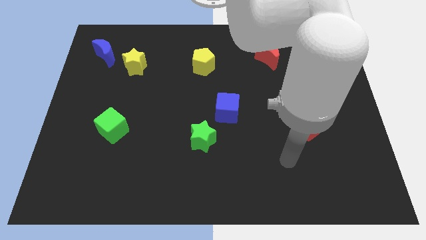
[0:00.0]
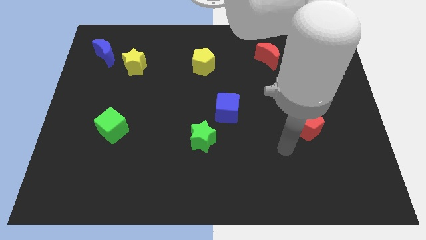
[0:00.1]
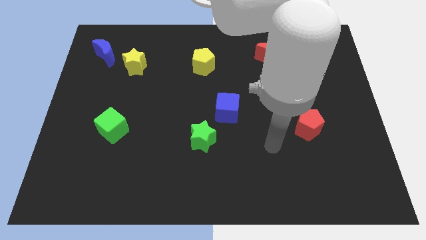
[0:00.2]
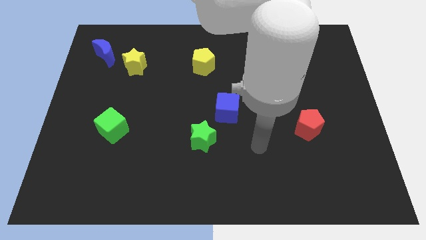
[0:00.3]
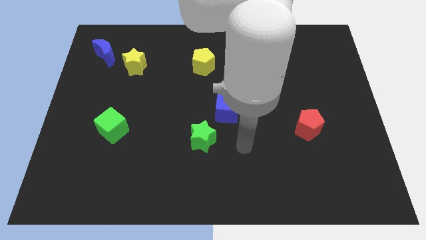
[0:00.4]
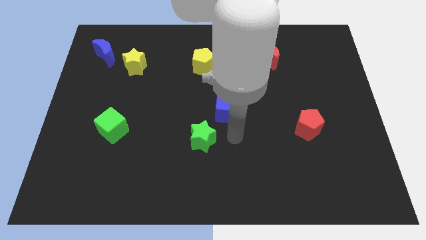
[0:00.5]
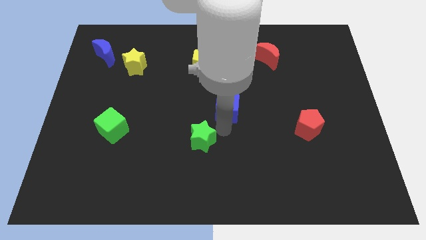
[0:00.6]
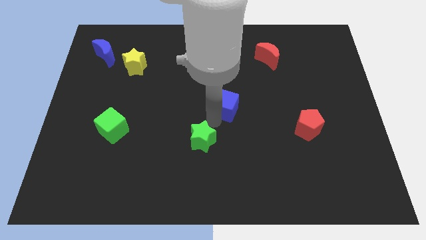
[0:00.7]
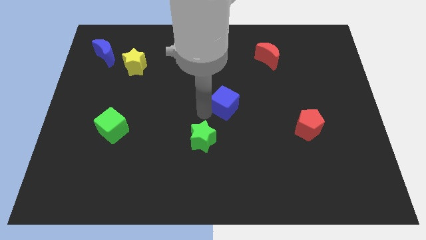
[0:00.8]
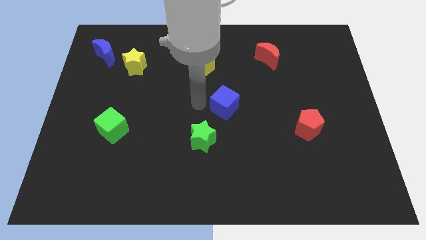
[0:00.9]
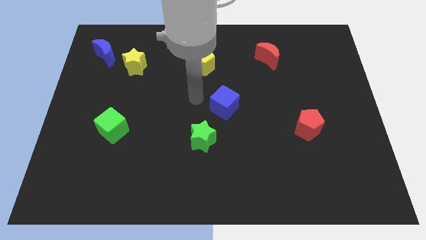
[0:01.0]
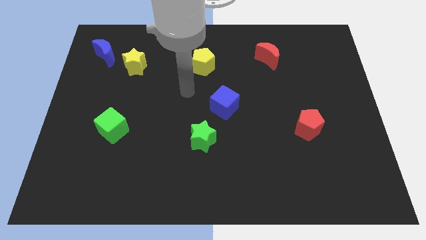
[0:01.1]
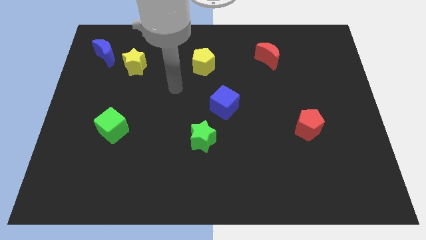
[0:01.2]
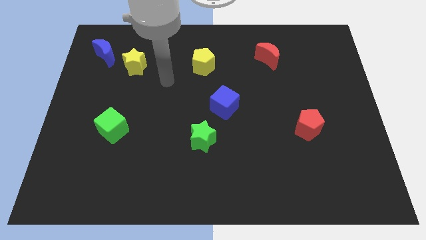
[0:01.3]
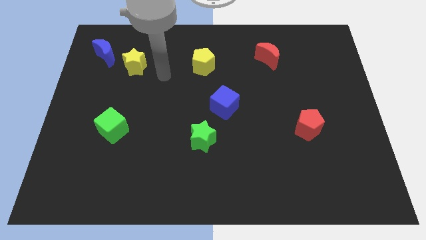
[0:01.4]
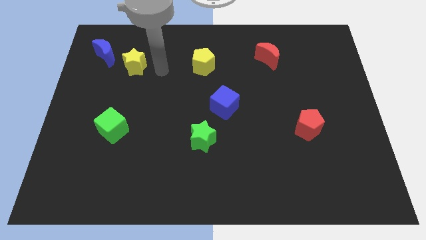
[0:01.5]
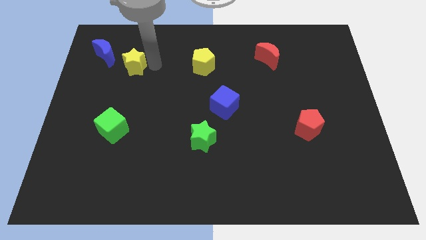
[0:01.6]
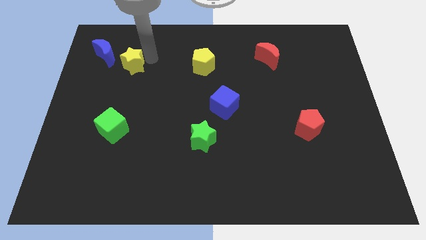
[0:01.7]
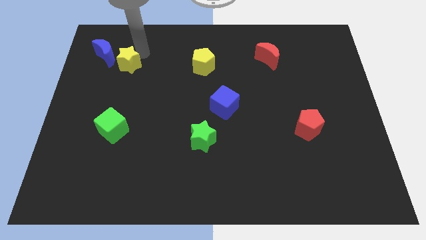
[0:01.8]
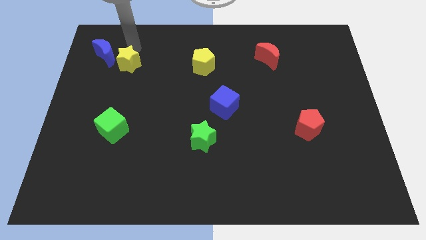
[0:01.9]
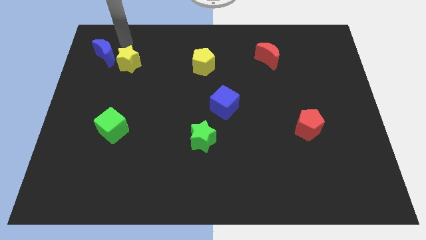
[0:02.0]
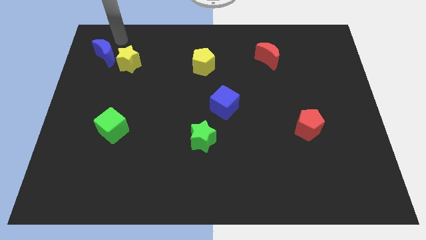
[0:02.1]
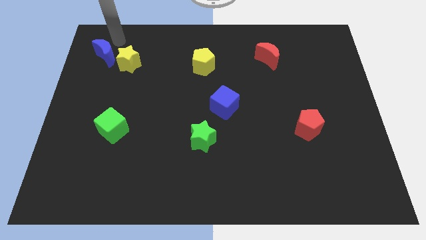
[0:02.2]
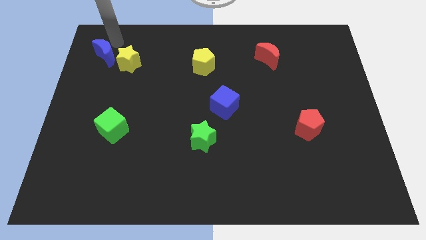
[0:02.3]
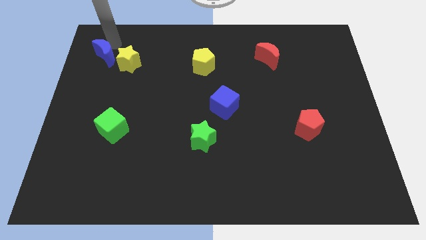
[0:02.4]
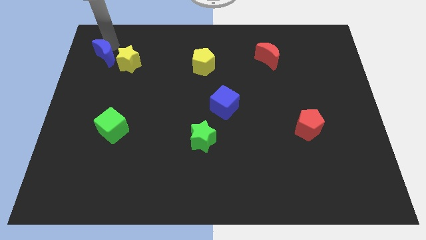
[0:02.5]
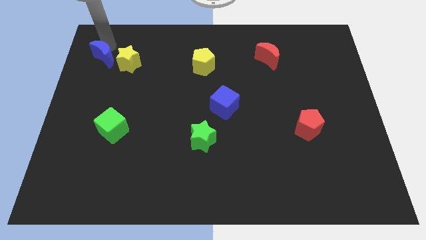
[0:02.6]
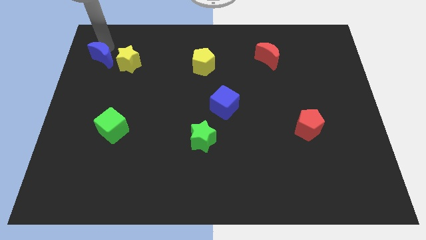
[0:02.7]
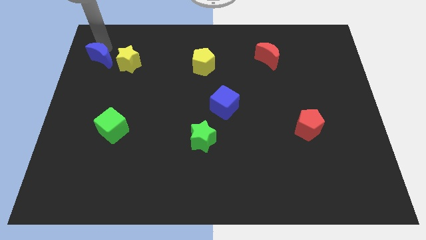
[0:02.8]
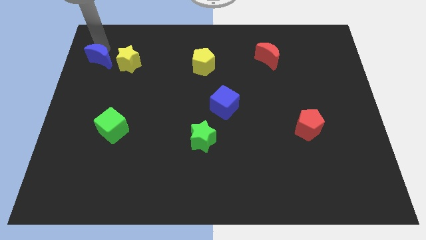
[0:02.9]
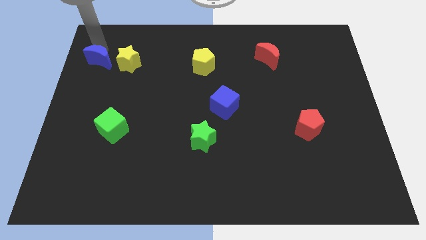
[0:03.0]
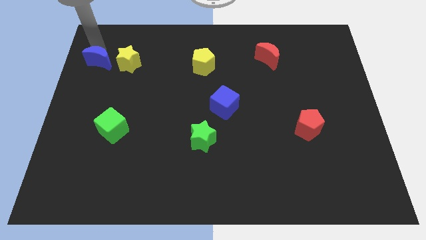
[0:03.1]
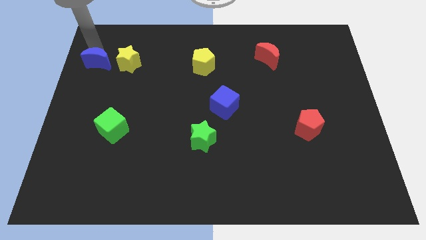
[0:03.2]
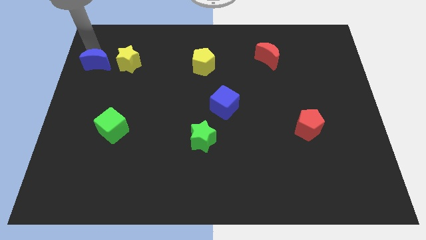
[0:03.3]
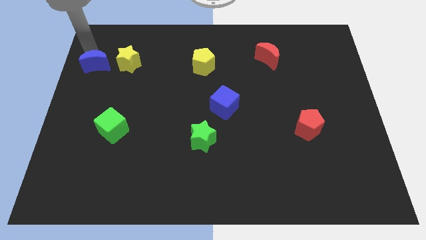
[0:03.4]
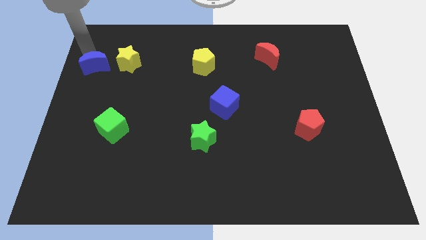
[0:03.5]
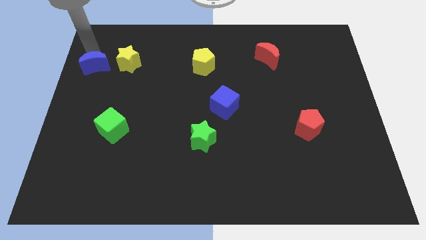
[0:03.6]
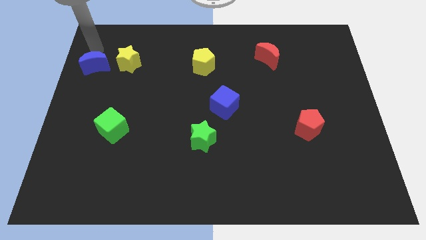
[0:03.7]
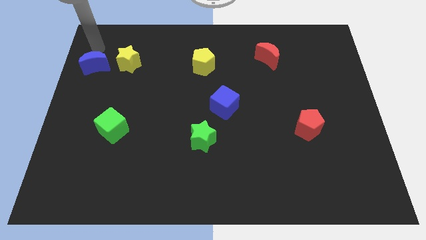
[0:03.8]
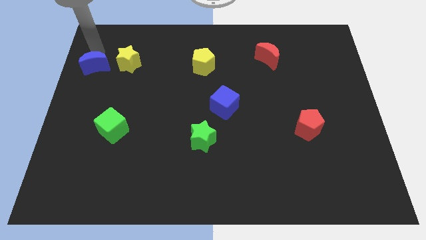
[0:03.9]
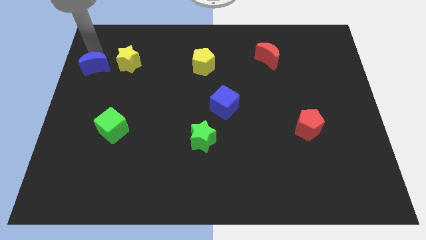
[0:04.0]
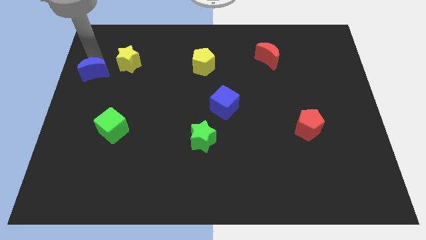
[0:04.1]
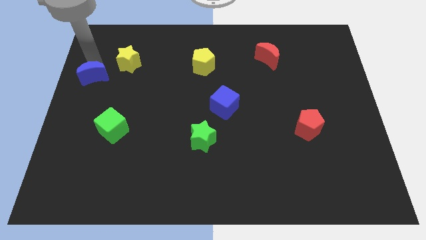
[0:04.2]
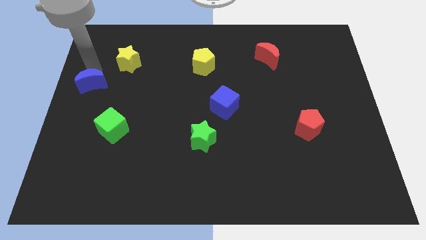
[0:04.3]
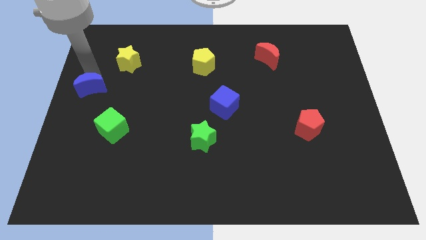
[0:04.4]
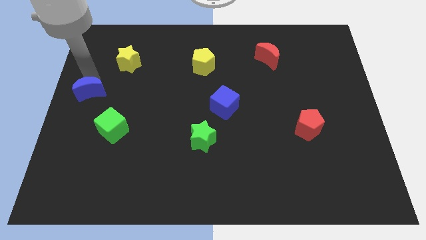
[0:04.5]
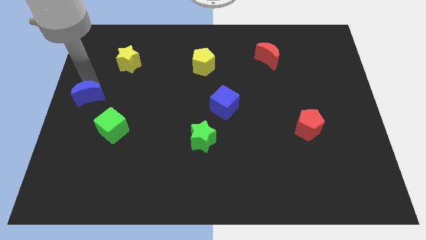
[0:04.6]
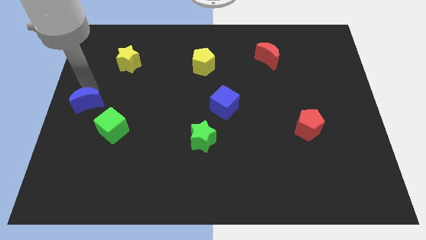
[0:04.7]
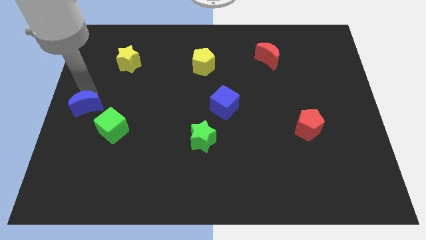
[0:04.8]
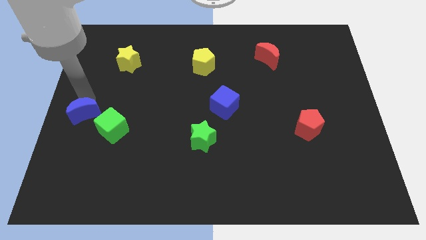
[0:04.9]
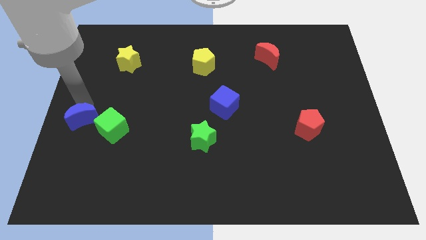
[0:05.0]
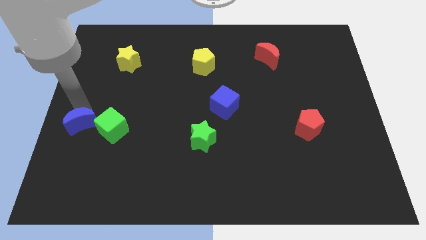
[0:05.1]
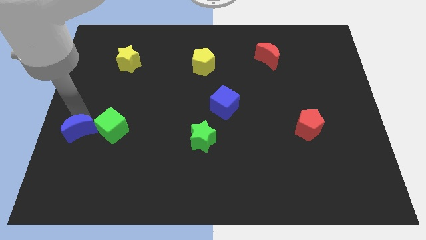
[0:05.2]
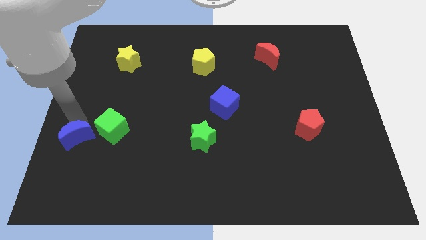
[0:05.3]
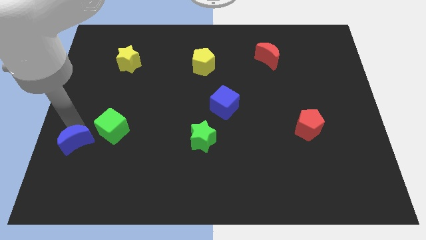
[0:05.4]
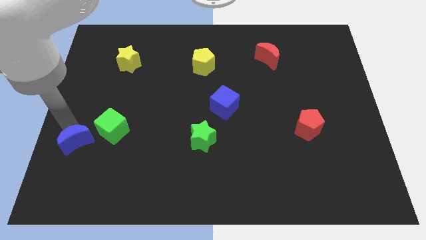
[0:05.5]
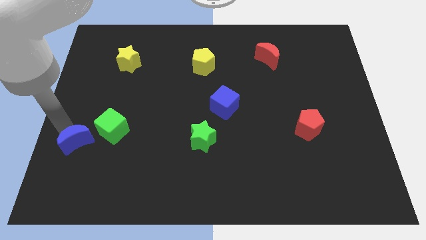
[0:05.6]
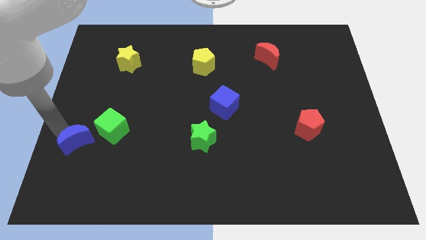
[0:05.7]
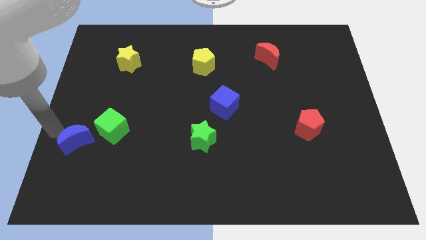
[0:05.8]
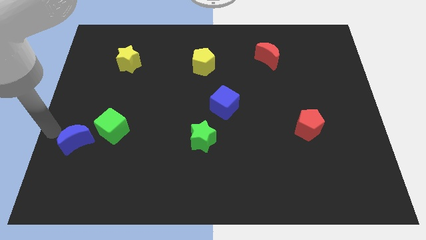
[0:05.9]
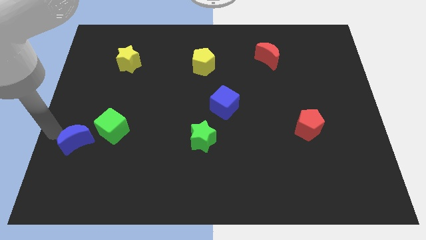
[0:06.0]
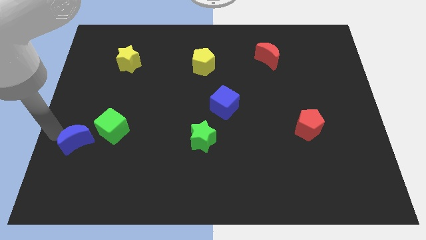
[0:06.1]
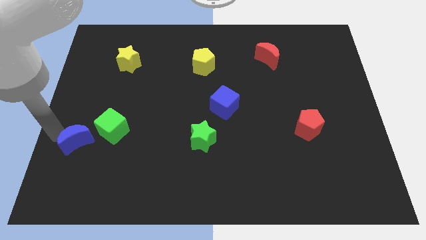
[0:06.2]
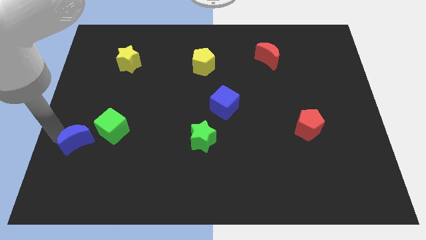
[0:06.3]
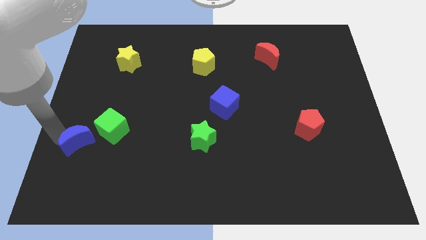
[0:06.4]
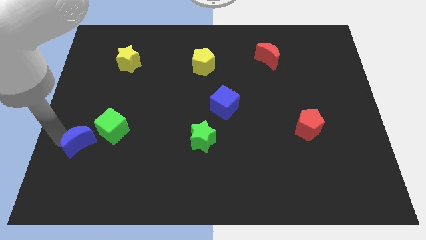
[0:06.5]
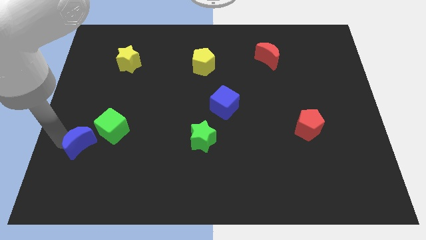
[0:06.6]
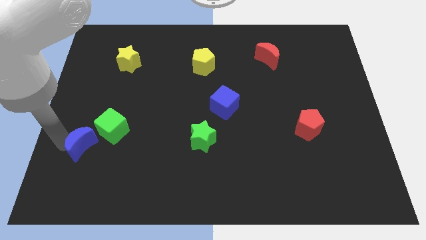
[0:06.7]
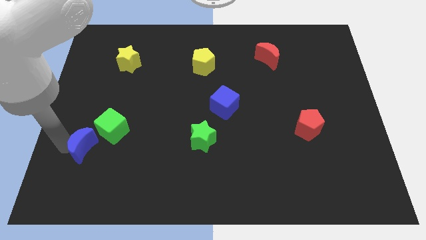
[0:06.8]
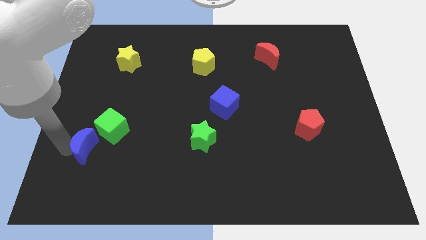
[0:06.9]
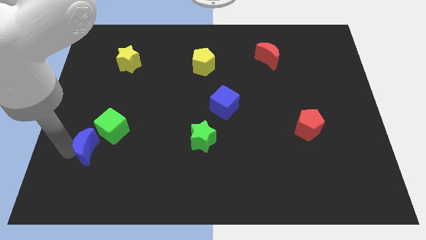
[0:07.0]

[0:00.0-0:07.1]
put the blue moon below the green cube
